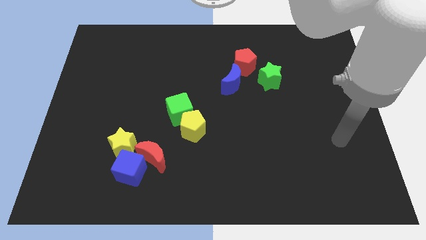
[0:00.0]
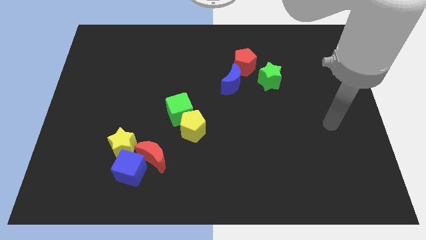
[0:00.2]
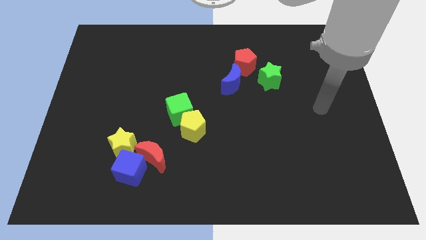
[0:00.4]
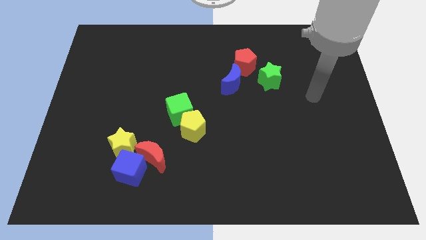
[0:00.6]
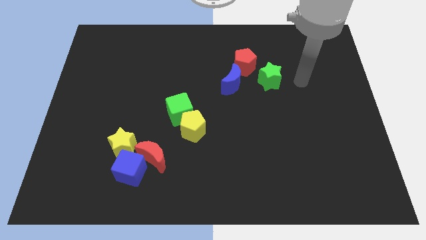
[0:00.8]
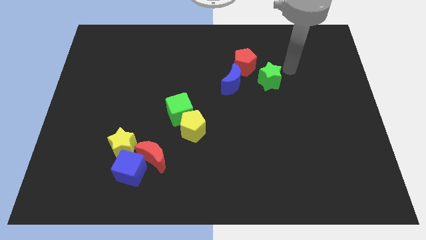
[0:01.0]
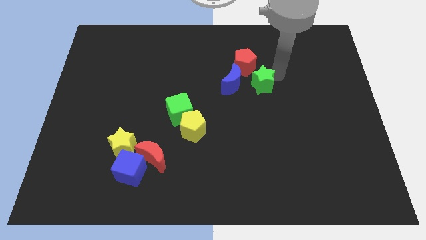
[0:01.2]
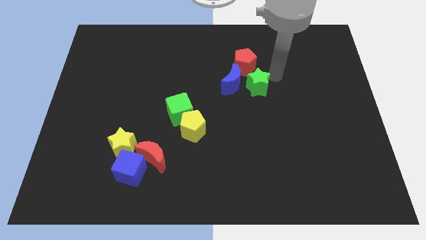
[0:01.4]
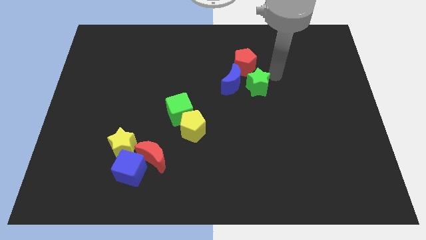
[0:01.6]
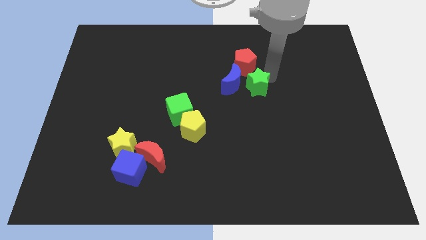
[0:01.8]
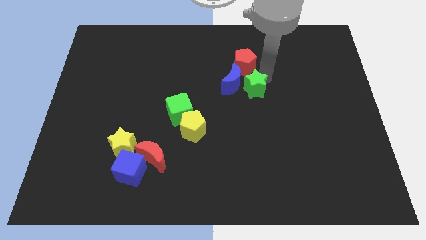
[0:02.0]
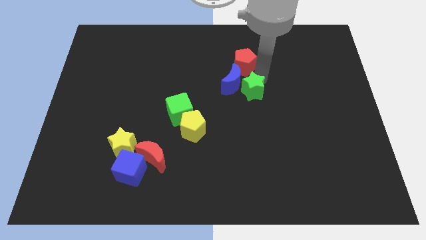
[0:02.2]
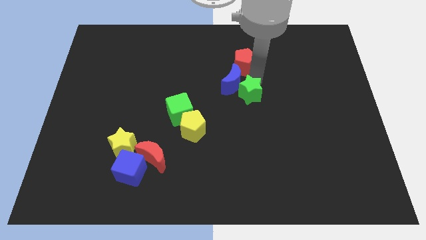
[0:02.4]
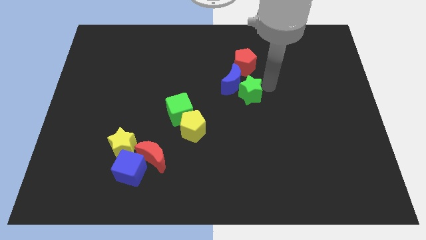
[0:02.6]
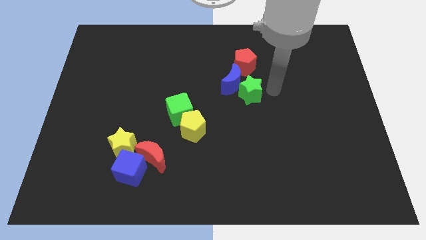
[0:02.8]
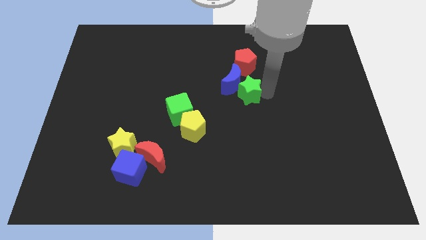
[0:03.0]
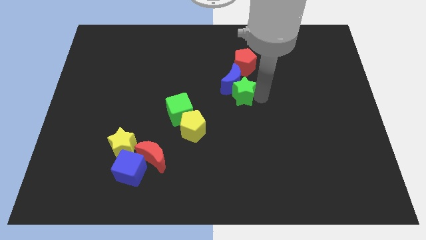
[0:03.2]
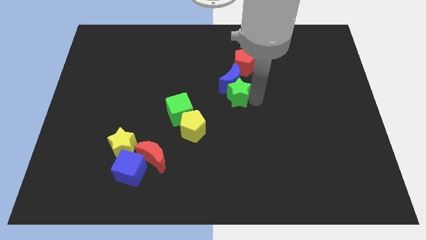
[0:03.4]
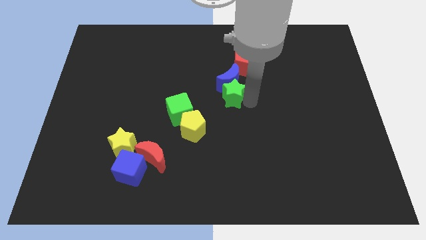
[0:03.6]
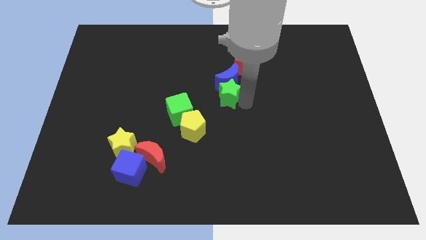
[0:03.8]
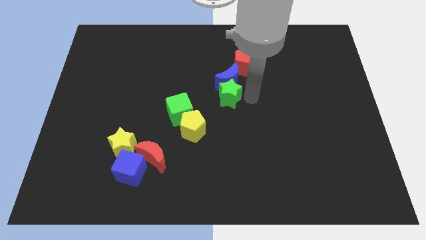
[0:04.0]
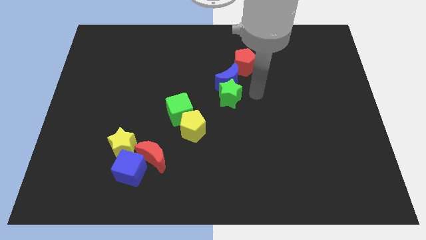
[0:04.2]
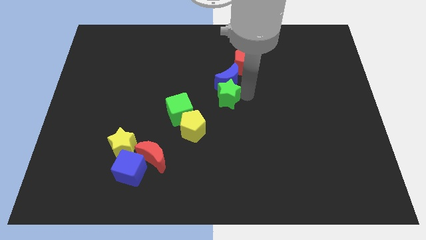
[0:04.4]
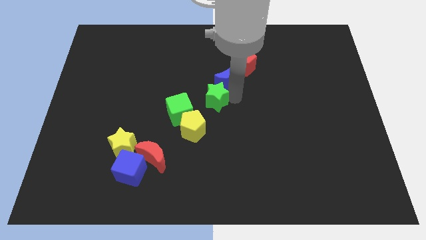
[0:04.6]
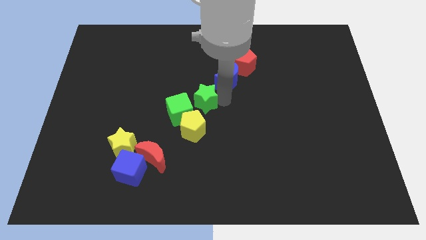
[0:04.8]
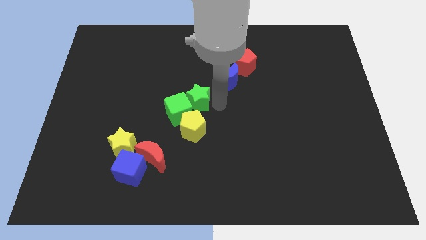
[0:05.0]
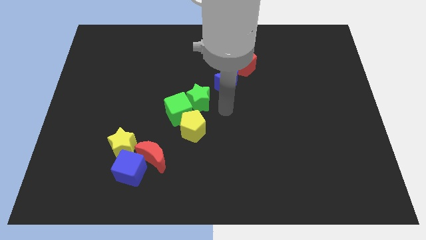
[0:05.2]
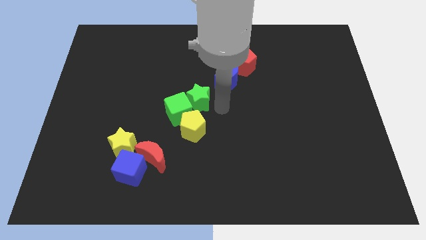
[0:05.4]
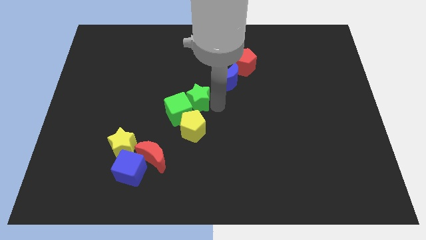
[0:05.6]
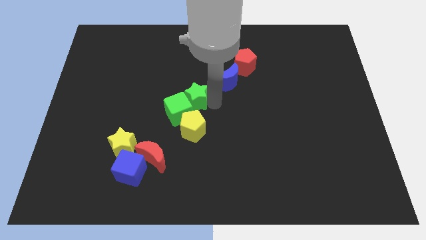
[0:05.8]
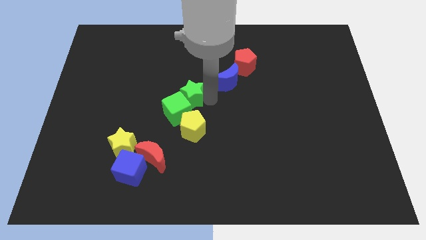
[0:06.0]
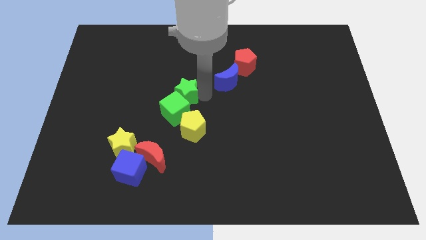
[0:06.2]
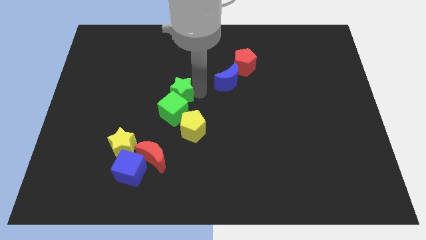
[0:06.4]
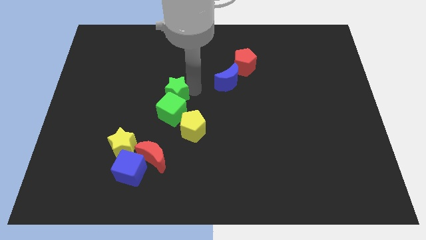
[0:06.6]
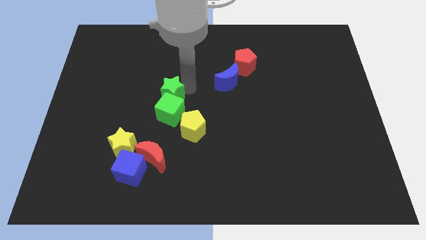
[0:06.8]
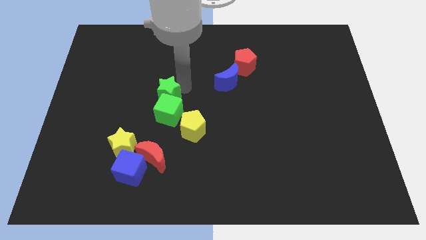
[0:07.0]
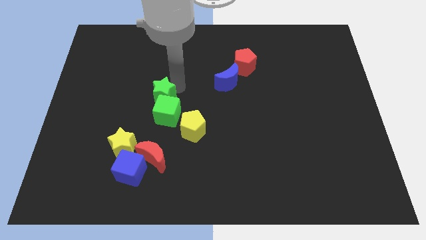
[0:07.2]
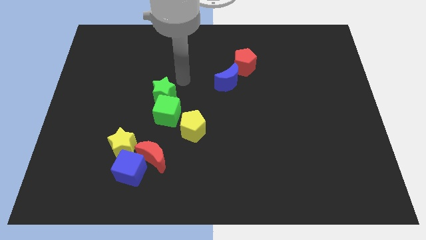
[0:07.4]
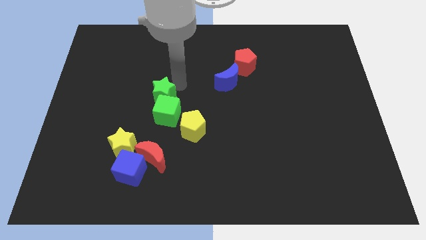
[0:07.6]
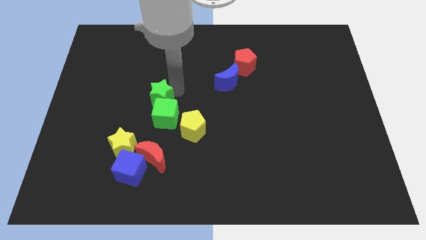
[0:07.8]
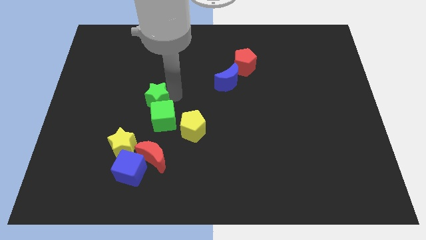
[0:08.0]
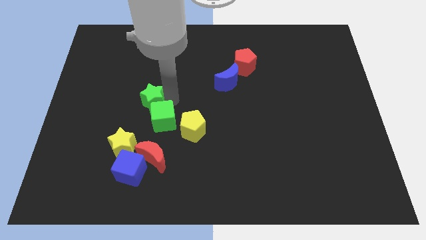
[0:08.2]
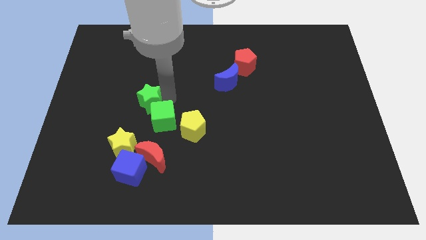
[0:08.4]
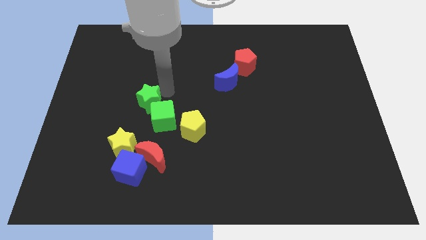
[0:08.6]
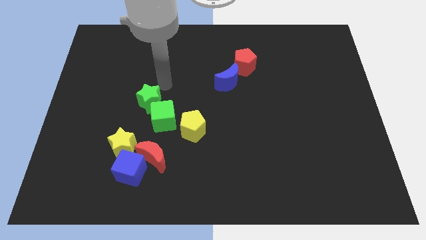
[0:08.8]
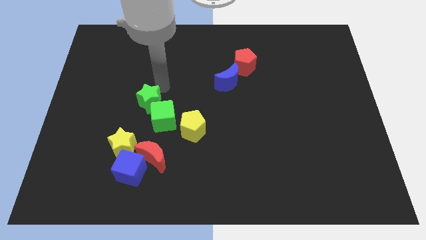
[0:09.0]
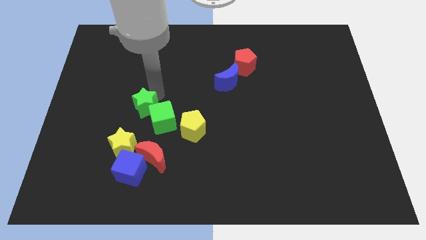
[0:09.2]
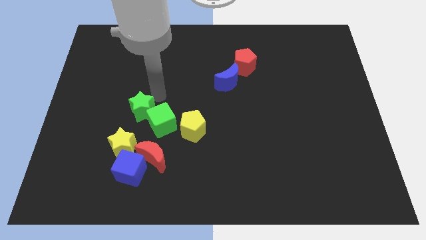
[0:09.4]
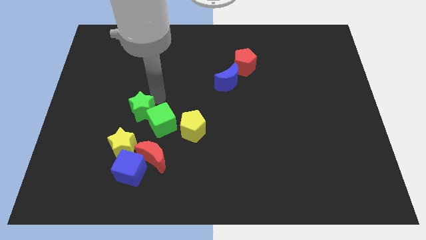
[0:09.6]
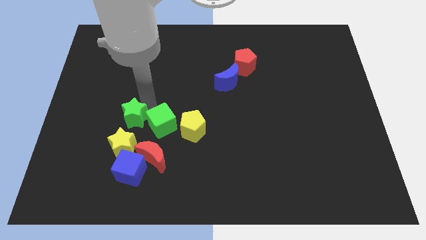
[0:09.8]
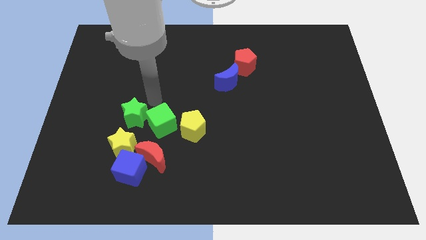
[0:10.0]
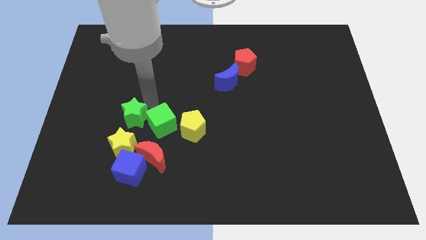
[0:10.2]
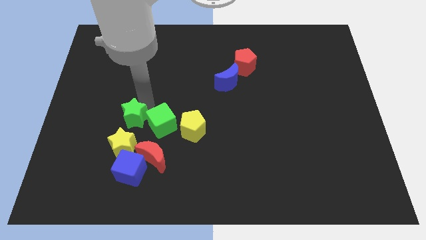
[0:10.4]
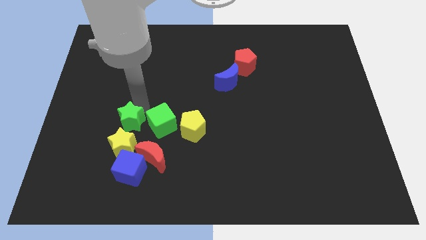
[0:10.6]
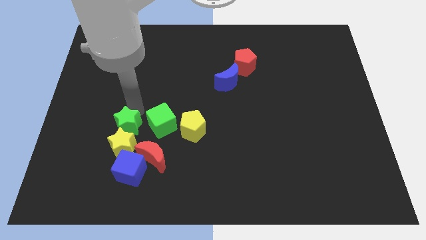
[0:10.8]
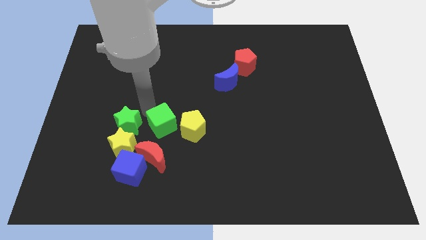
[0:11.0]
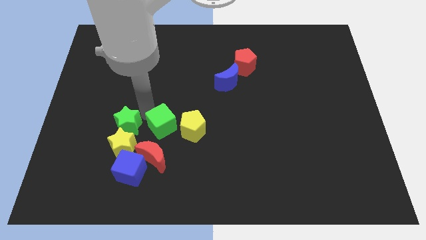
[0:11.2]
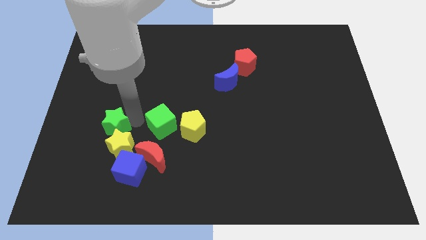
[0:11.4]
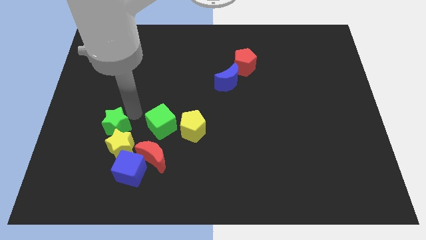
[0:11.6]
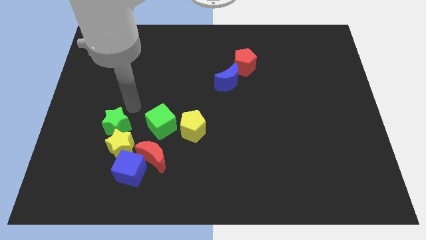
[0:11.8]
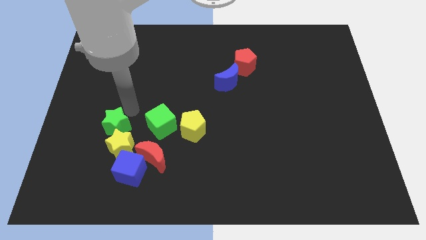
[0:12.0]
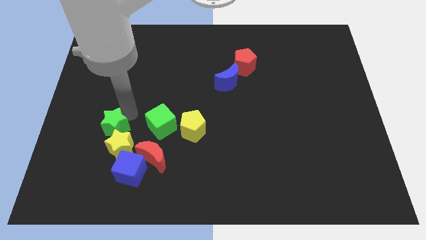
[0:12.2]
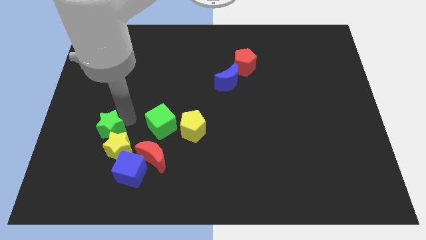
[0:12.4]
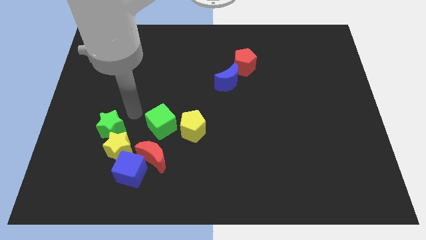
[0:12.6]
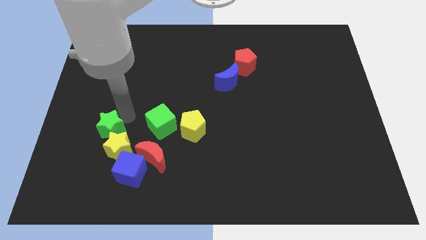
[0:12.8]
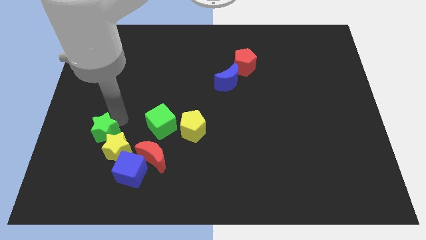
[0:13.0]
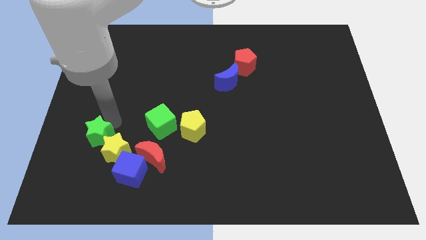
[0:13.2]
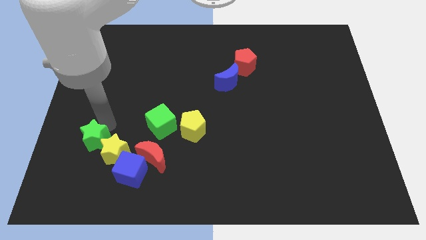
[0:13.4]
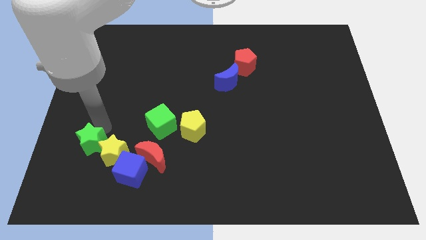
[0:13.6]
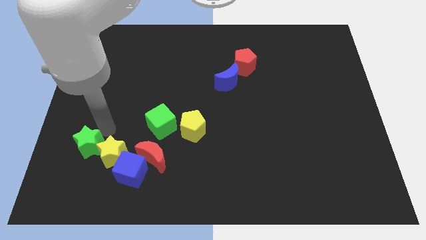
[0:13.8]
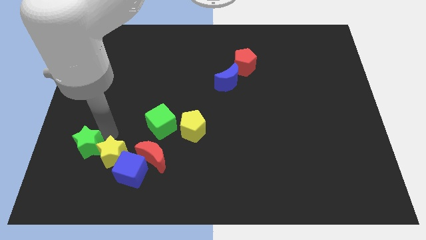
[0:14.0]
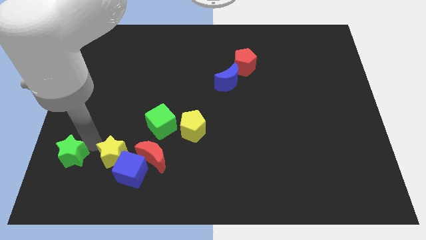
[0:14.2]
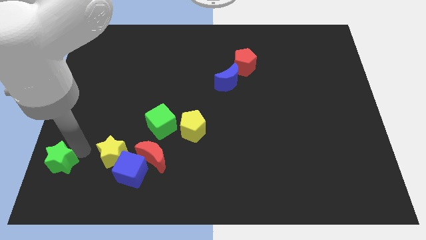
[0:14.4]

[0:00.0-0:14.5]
move the green star to the lower left corner
